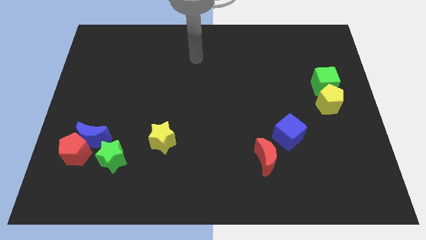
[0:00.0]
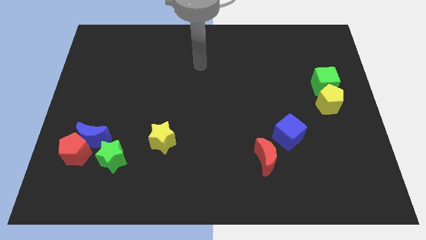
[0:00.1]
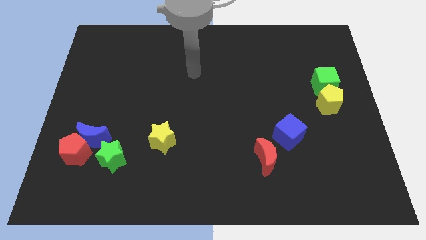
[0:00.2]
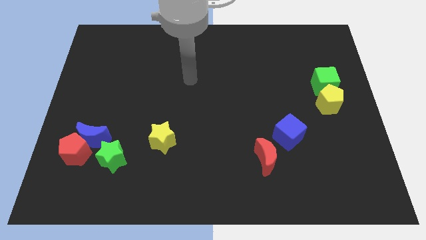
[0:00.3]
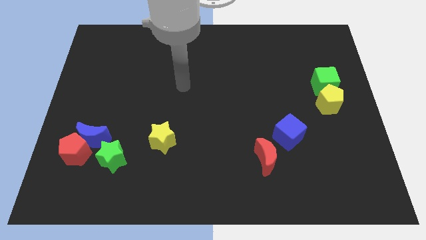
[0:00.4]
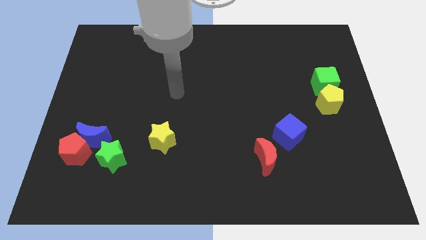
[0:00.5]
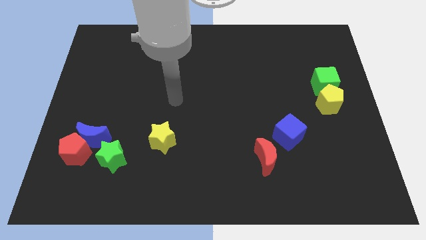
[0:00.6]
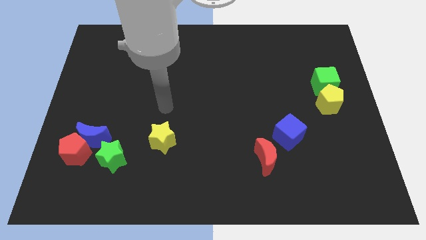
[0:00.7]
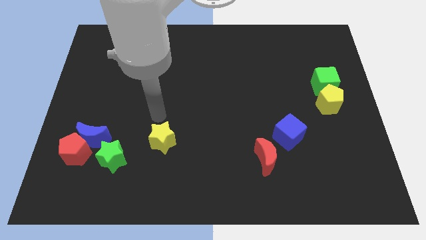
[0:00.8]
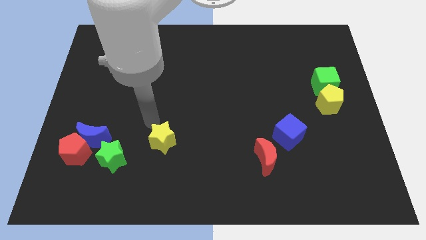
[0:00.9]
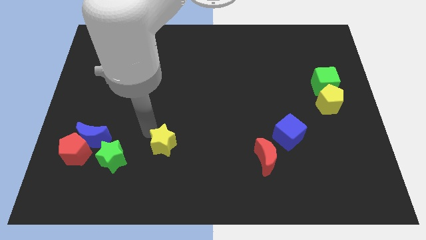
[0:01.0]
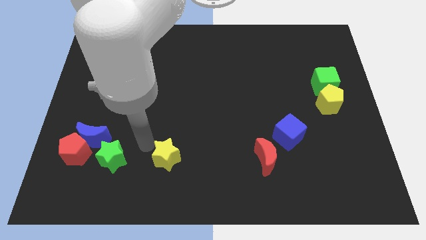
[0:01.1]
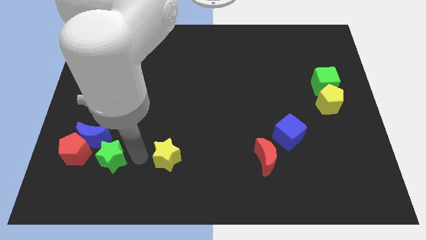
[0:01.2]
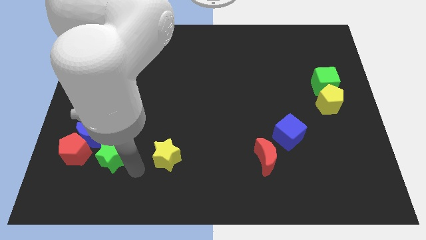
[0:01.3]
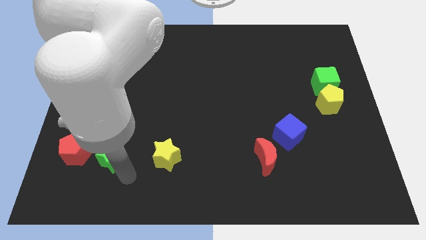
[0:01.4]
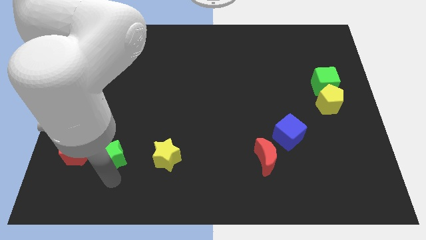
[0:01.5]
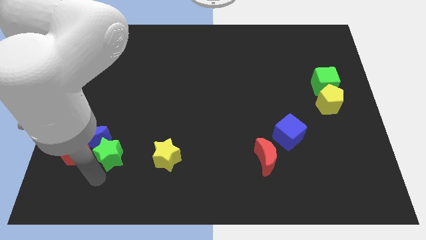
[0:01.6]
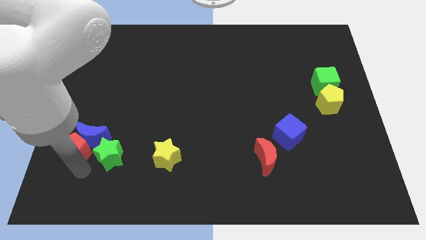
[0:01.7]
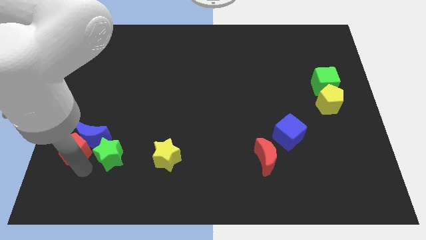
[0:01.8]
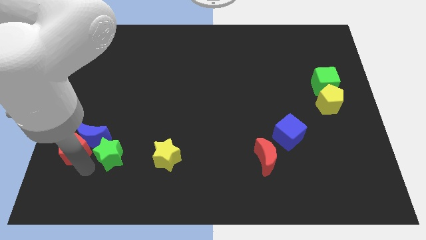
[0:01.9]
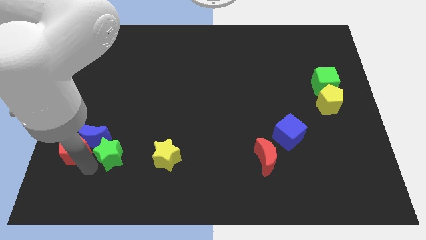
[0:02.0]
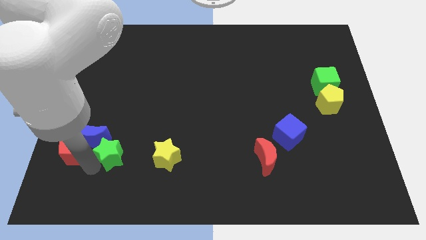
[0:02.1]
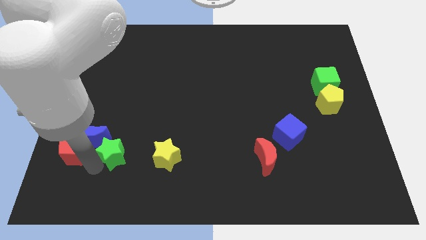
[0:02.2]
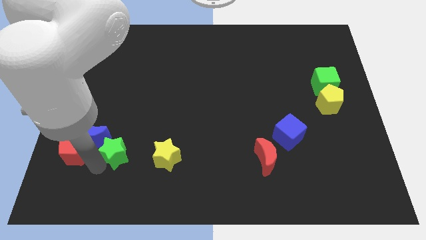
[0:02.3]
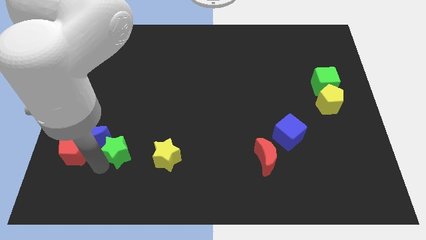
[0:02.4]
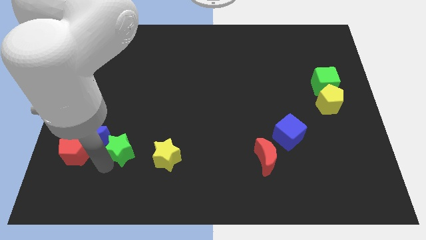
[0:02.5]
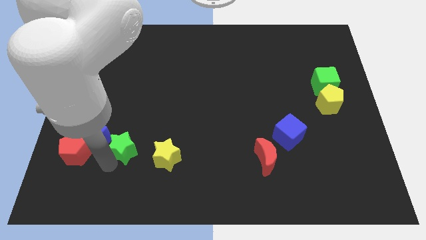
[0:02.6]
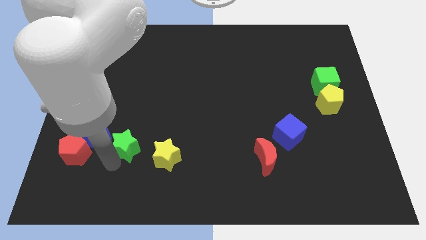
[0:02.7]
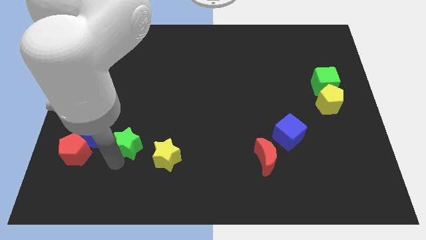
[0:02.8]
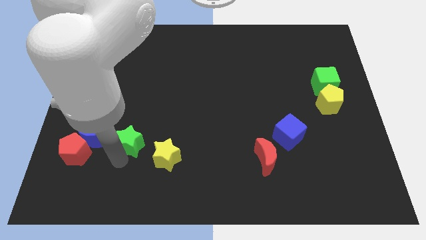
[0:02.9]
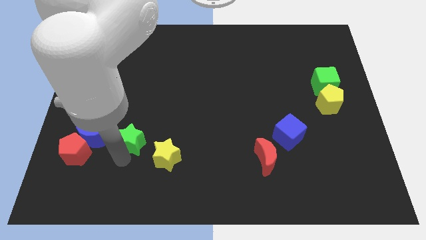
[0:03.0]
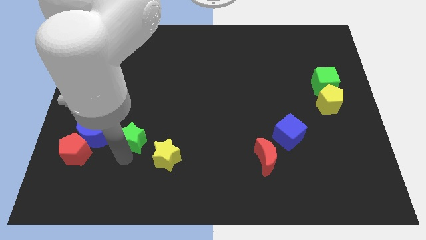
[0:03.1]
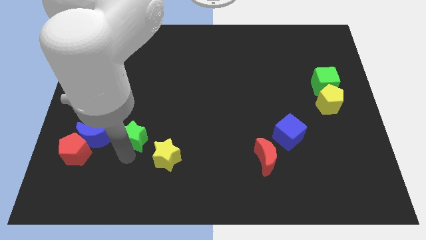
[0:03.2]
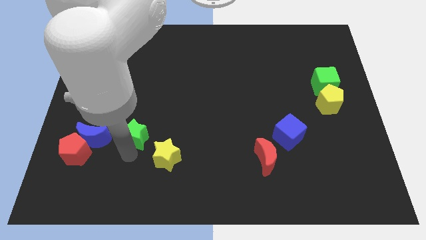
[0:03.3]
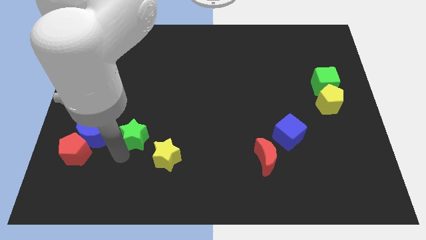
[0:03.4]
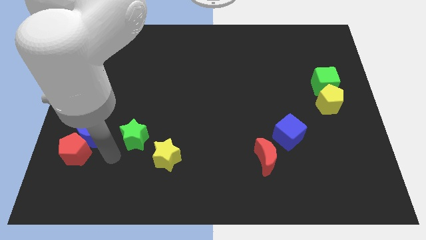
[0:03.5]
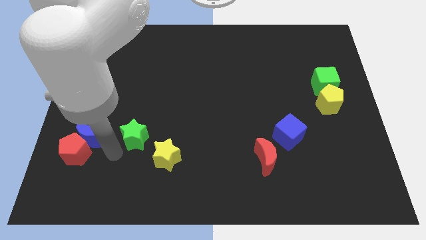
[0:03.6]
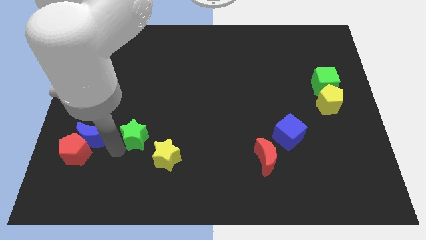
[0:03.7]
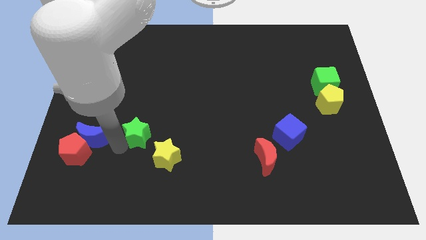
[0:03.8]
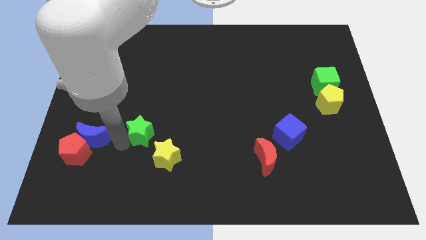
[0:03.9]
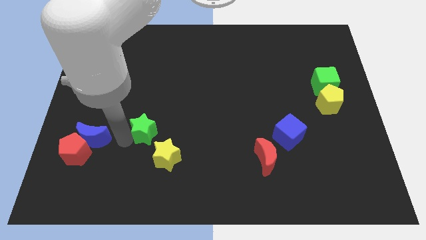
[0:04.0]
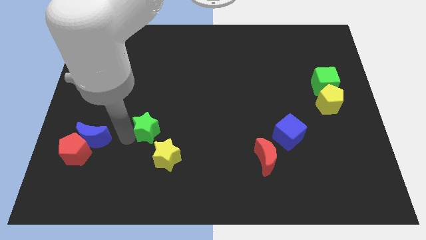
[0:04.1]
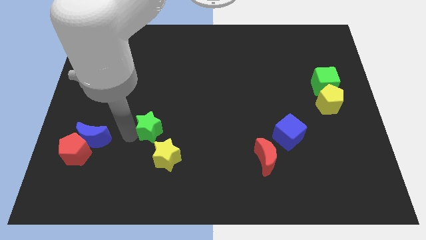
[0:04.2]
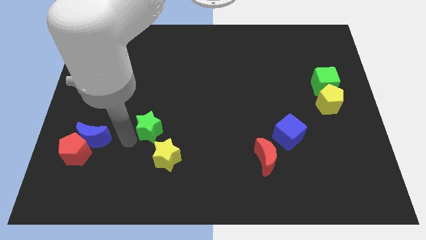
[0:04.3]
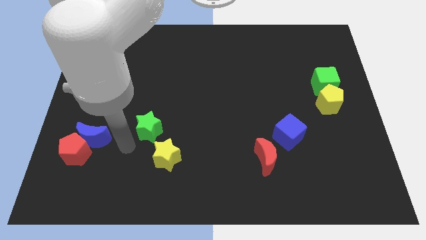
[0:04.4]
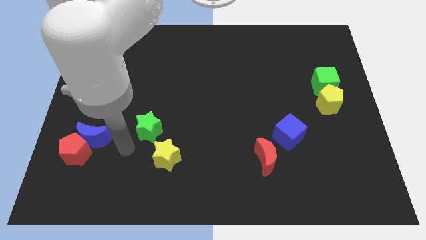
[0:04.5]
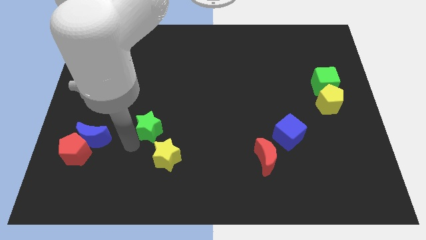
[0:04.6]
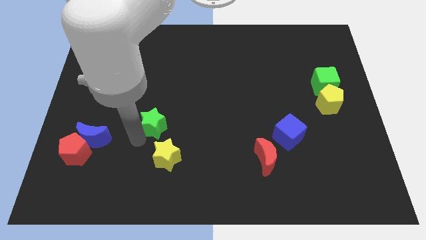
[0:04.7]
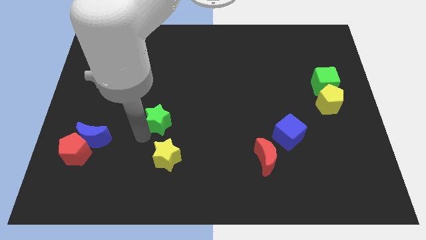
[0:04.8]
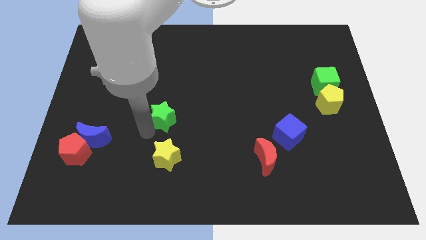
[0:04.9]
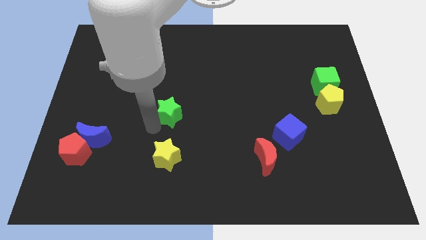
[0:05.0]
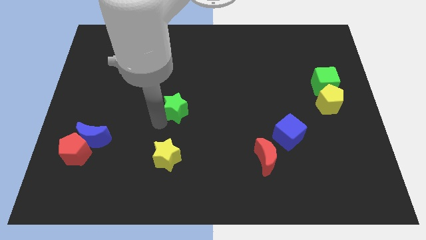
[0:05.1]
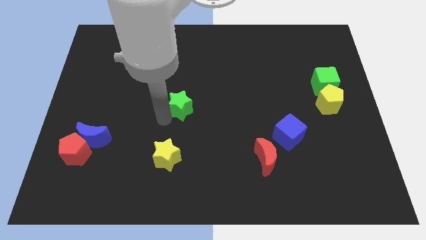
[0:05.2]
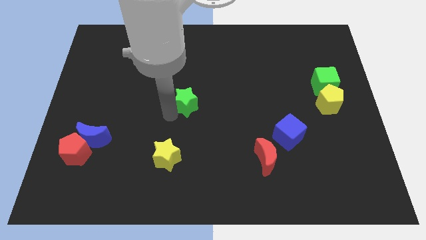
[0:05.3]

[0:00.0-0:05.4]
move the green star up and right diagonally

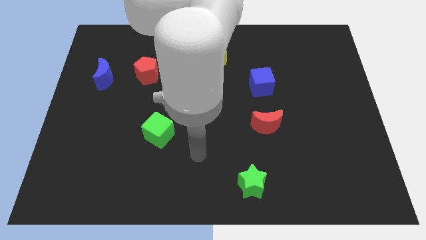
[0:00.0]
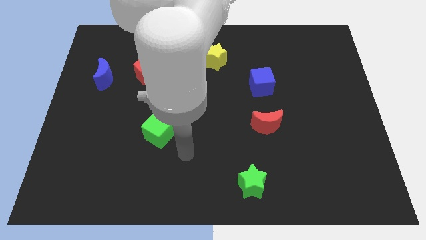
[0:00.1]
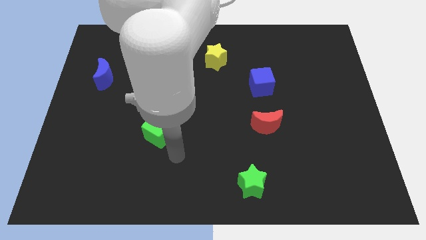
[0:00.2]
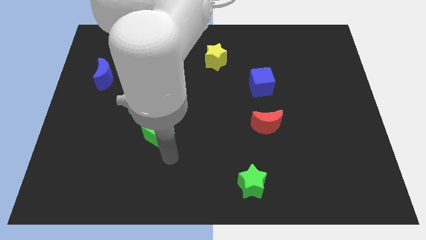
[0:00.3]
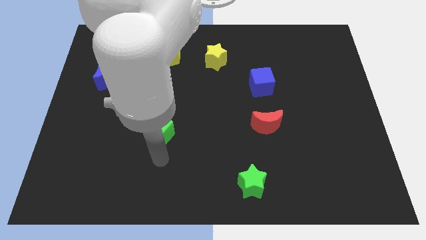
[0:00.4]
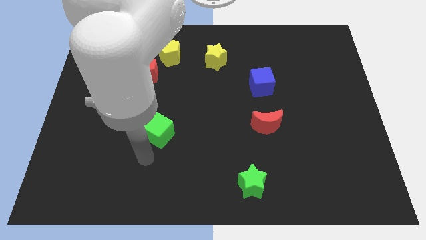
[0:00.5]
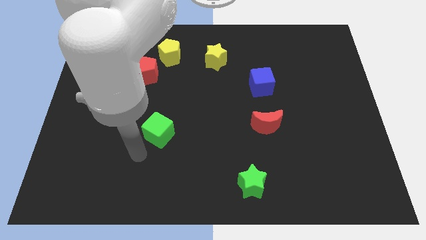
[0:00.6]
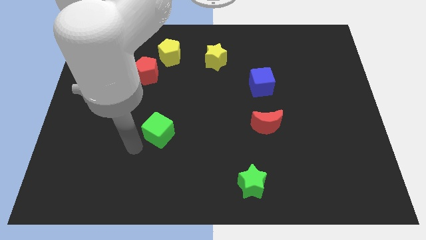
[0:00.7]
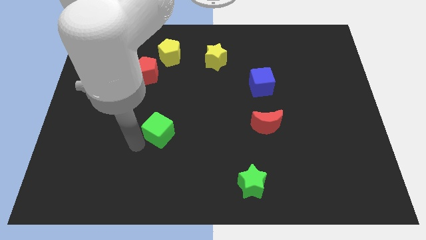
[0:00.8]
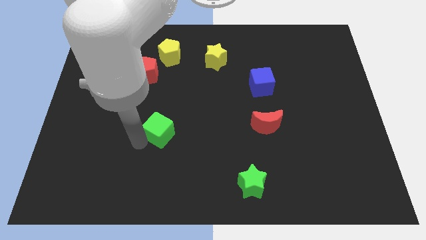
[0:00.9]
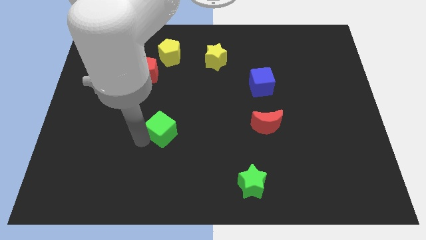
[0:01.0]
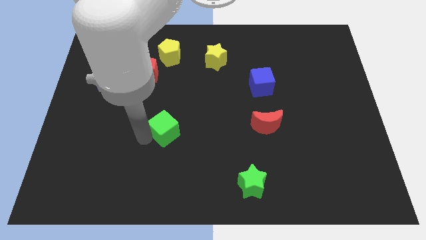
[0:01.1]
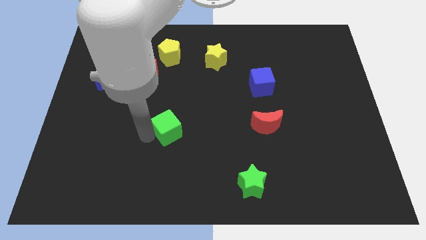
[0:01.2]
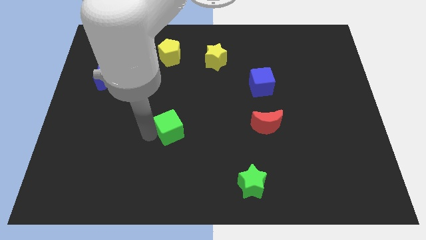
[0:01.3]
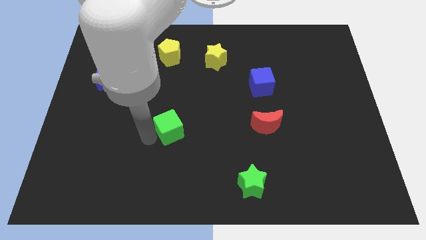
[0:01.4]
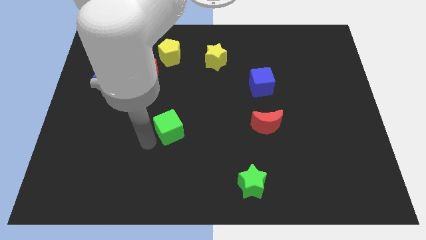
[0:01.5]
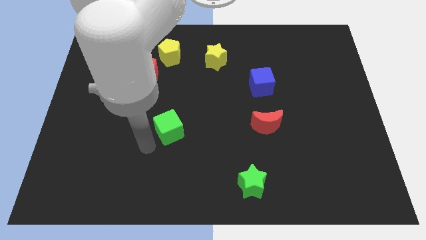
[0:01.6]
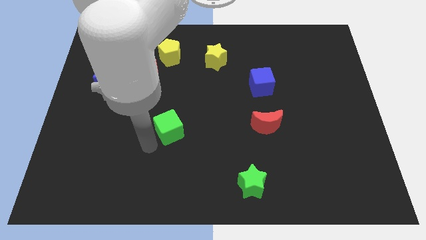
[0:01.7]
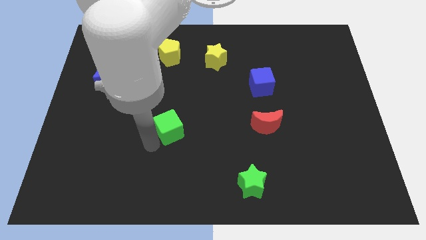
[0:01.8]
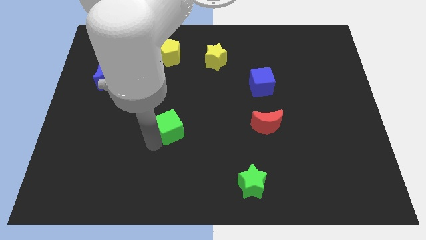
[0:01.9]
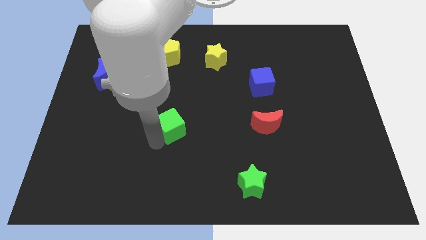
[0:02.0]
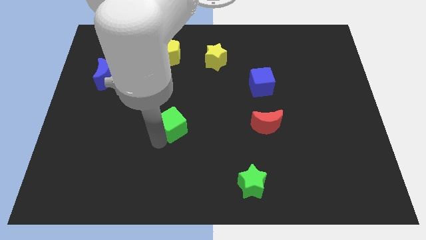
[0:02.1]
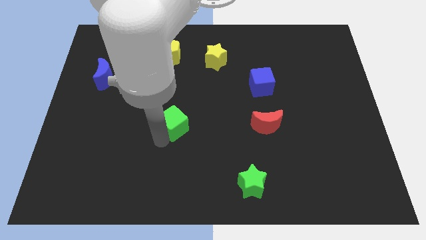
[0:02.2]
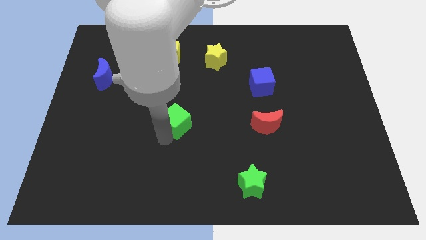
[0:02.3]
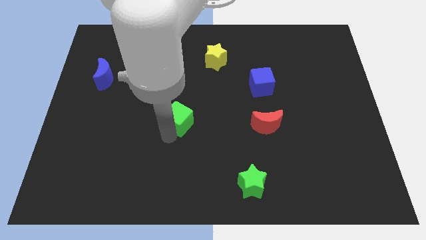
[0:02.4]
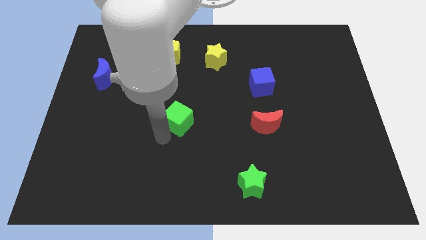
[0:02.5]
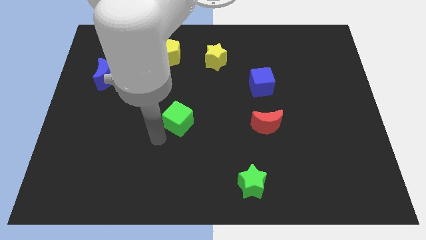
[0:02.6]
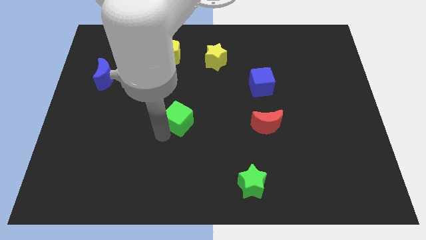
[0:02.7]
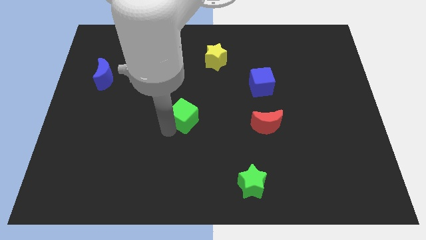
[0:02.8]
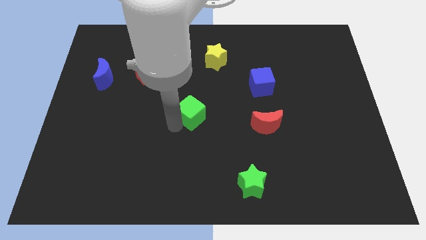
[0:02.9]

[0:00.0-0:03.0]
slide the green cube upwards and then right a bit

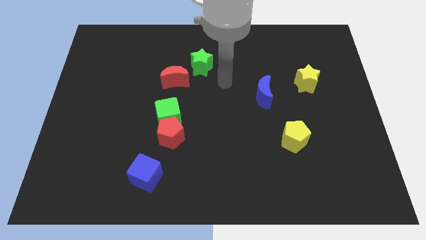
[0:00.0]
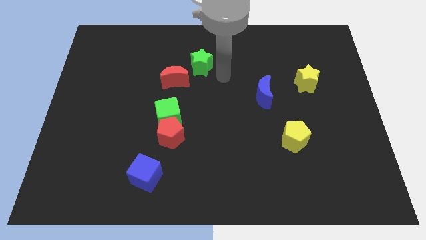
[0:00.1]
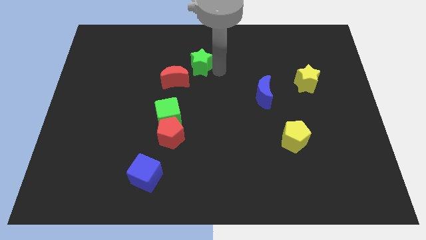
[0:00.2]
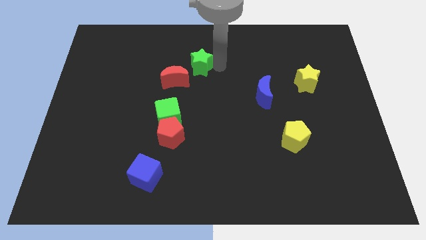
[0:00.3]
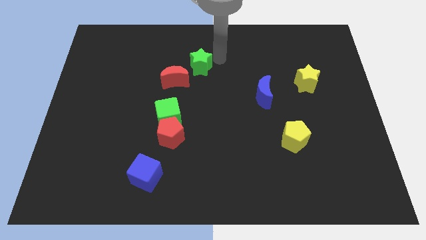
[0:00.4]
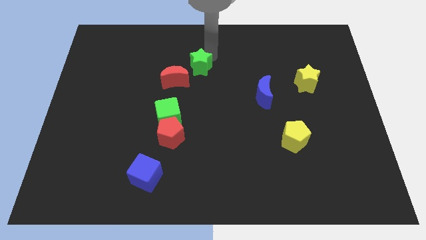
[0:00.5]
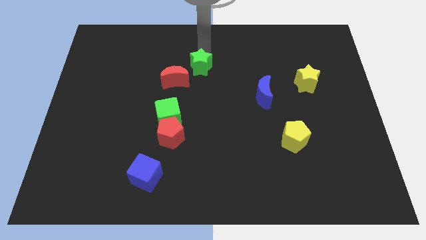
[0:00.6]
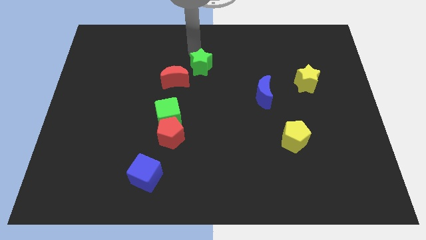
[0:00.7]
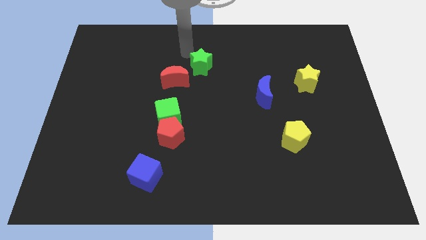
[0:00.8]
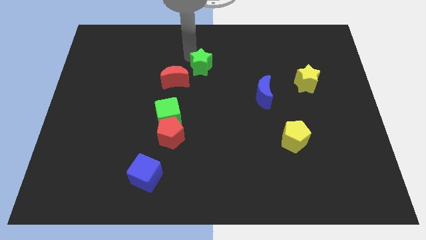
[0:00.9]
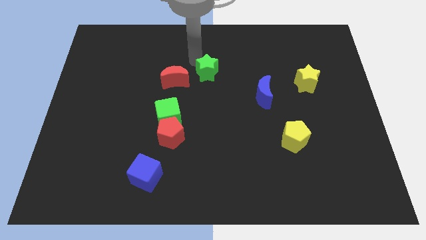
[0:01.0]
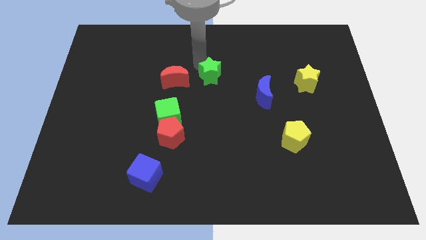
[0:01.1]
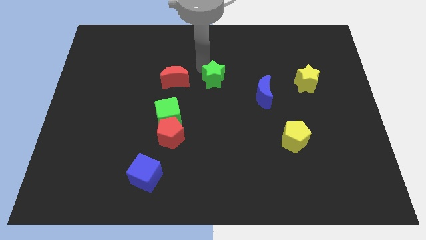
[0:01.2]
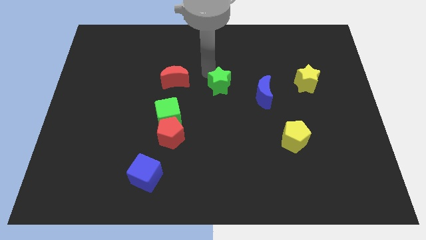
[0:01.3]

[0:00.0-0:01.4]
slightly slide the green star down and then to the right
